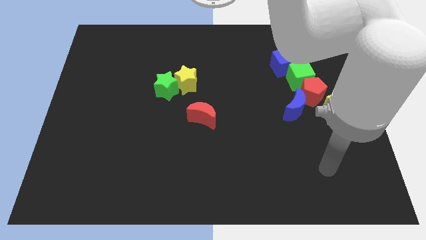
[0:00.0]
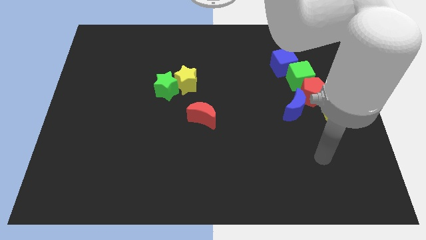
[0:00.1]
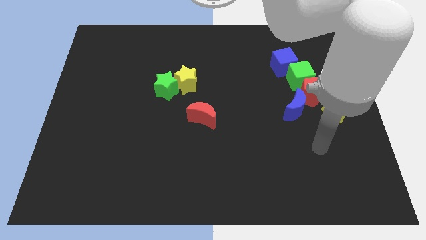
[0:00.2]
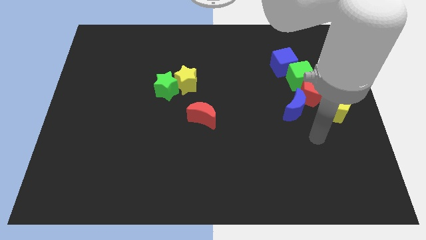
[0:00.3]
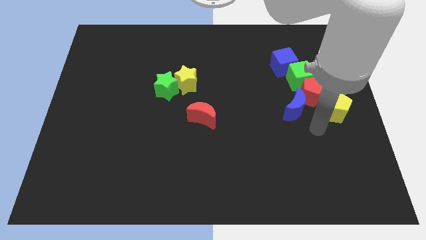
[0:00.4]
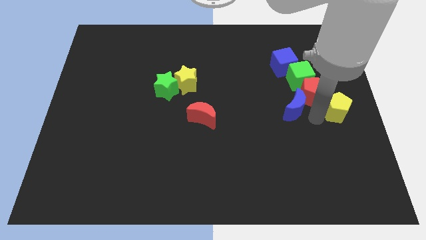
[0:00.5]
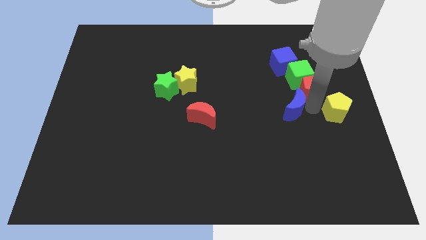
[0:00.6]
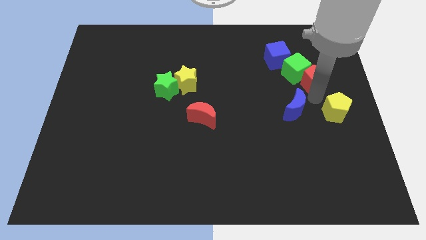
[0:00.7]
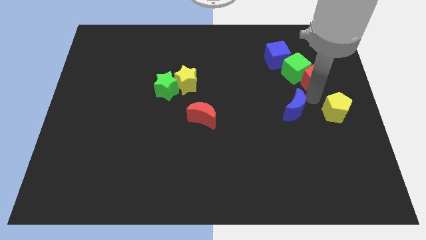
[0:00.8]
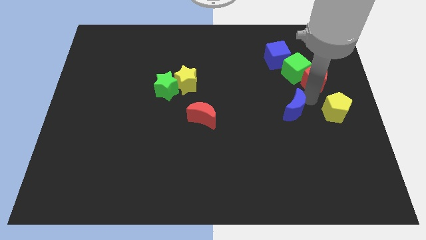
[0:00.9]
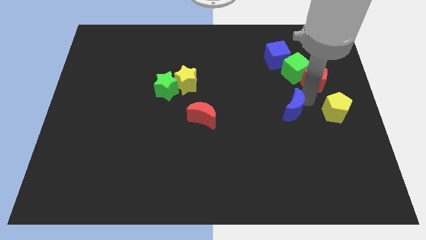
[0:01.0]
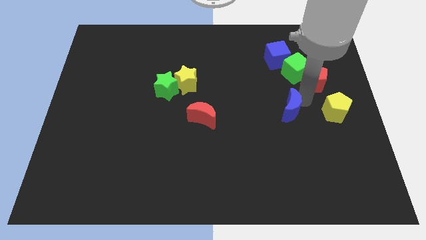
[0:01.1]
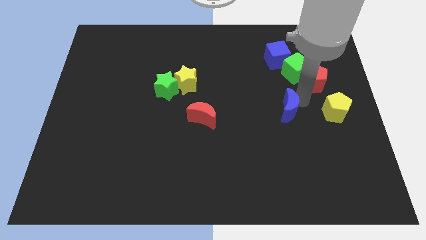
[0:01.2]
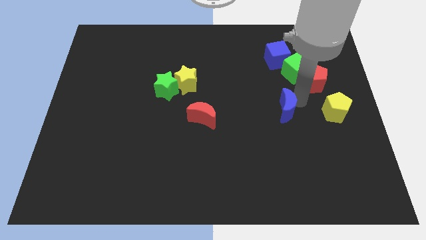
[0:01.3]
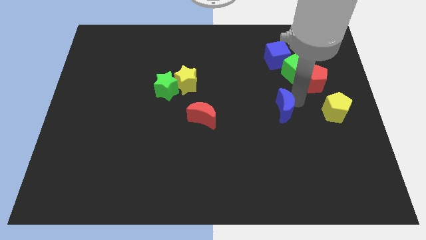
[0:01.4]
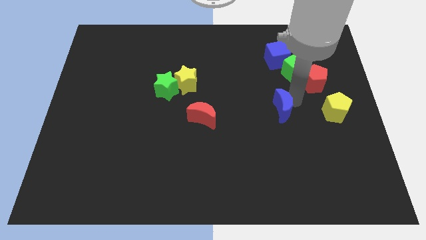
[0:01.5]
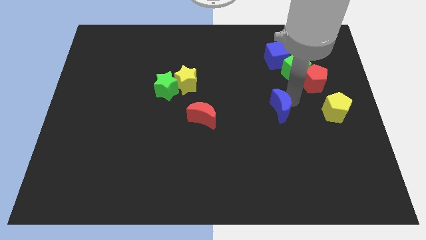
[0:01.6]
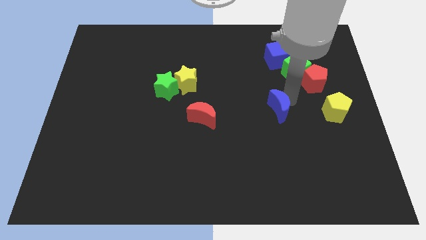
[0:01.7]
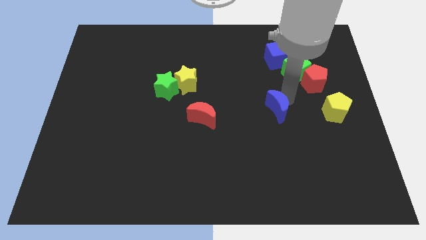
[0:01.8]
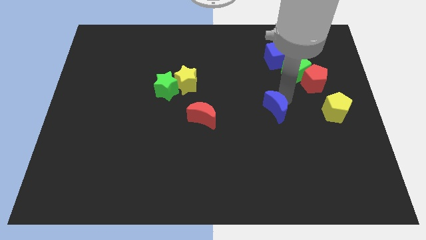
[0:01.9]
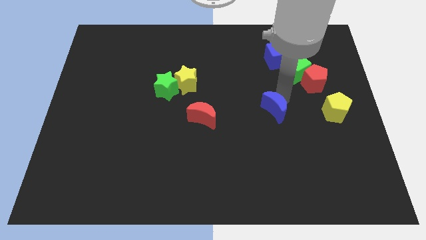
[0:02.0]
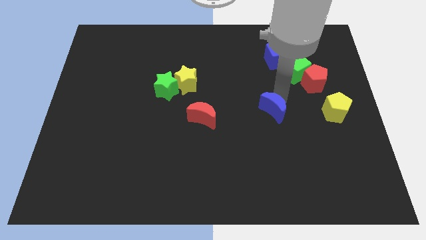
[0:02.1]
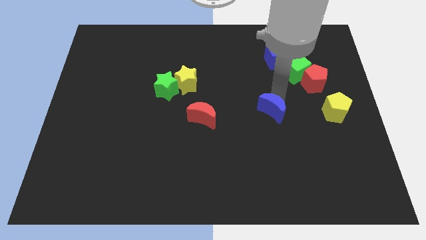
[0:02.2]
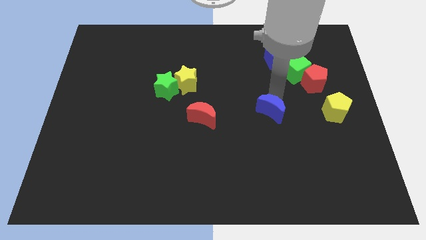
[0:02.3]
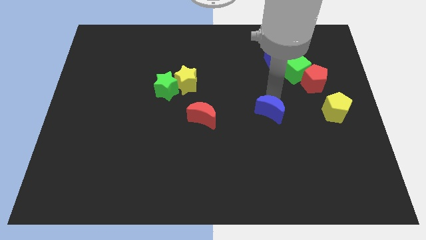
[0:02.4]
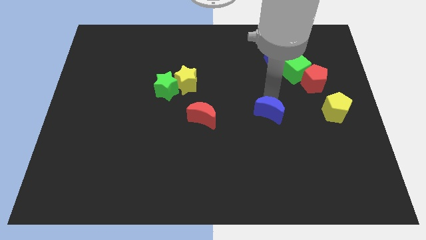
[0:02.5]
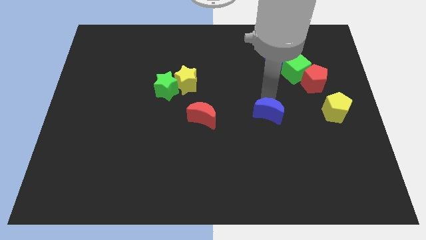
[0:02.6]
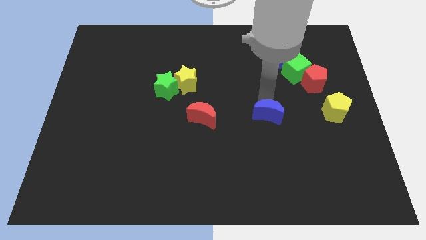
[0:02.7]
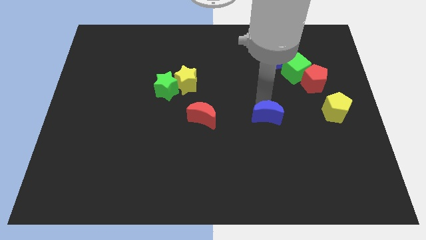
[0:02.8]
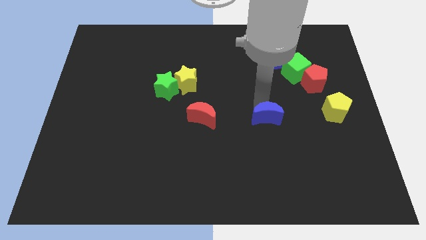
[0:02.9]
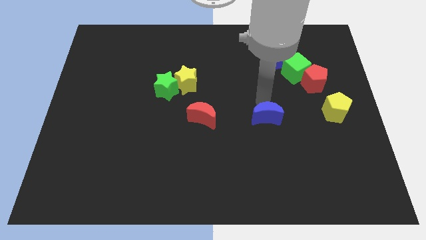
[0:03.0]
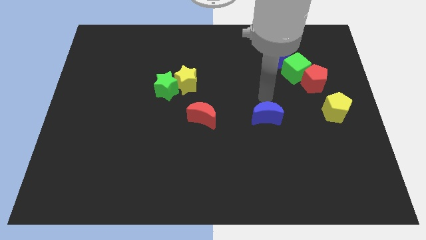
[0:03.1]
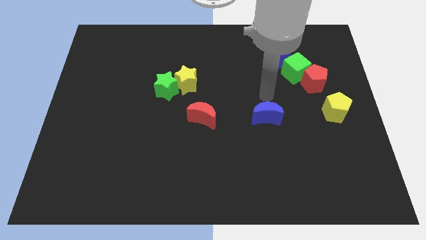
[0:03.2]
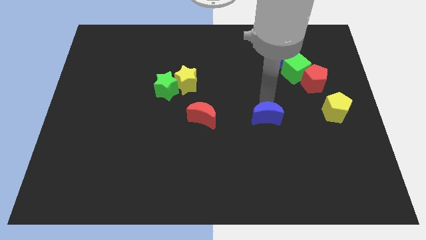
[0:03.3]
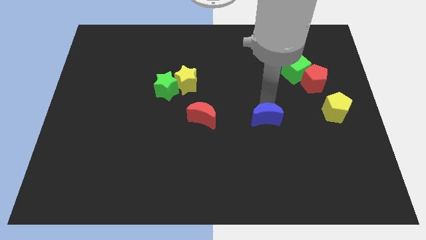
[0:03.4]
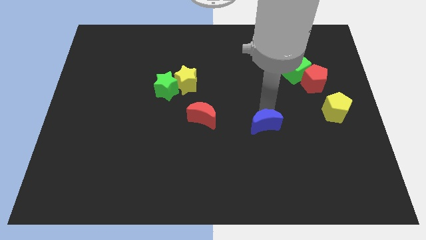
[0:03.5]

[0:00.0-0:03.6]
push the blue moon down and left diagonally slightly

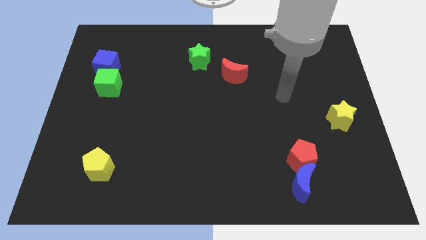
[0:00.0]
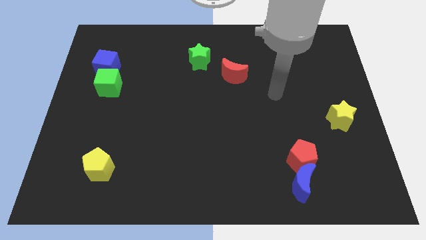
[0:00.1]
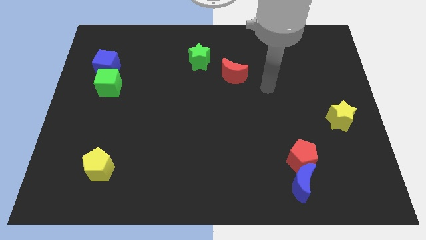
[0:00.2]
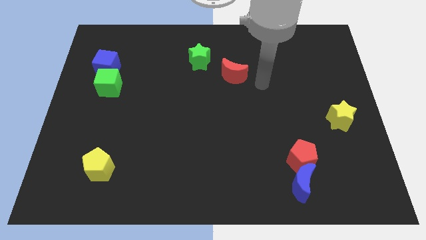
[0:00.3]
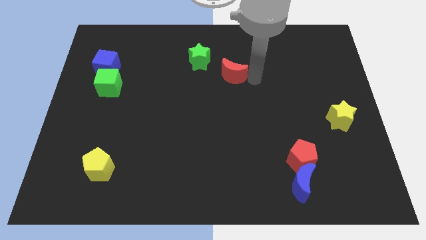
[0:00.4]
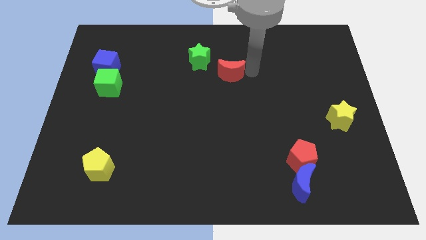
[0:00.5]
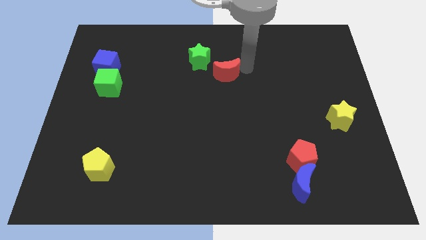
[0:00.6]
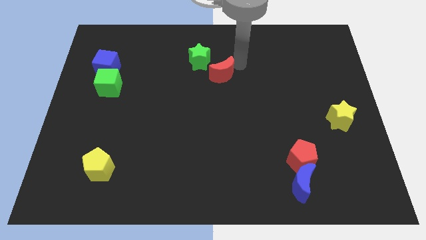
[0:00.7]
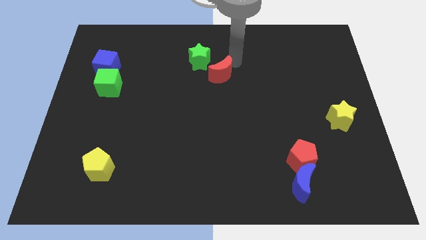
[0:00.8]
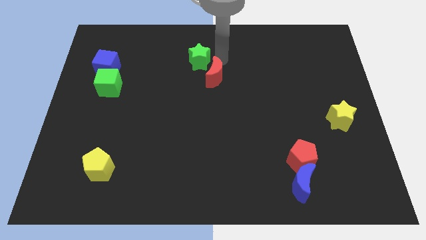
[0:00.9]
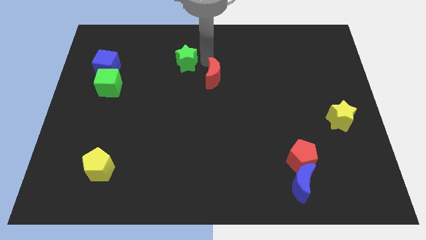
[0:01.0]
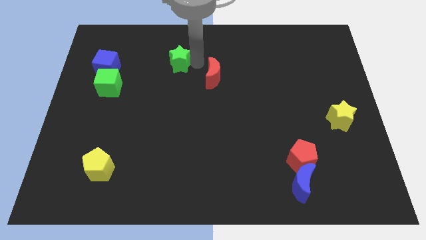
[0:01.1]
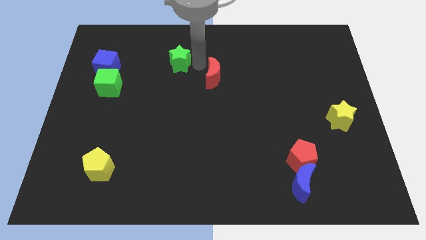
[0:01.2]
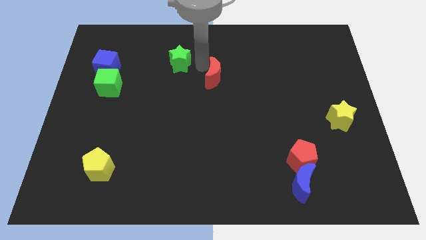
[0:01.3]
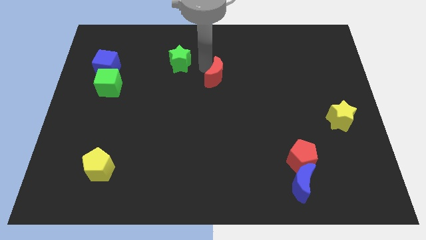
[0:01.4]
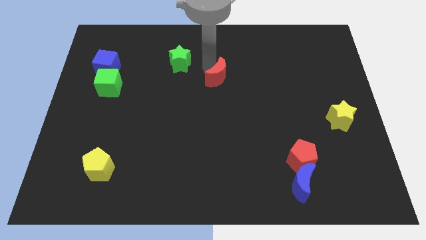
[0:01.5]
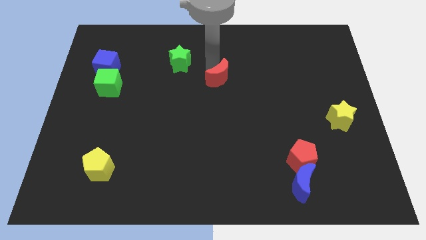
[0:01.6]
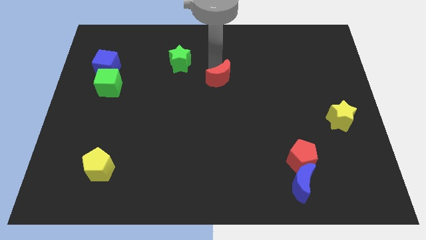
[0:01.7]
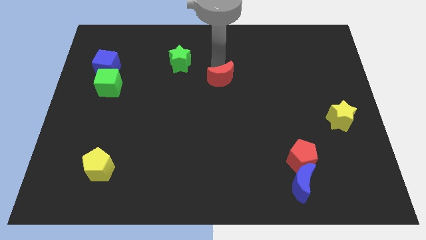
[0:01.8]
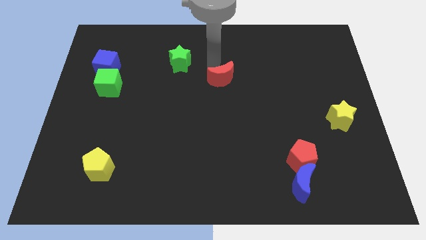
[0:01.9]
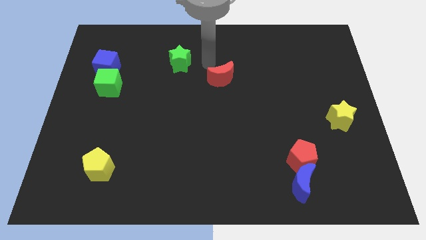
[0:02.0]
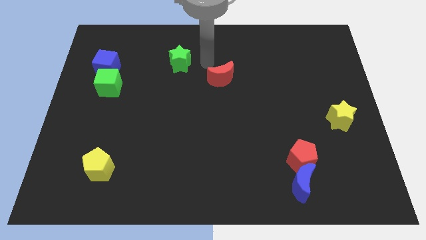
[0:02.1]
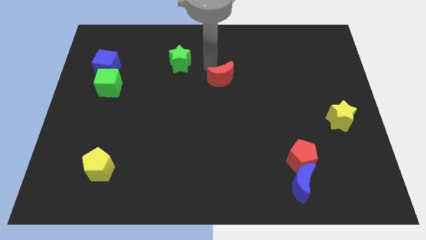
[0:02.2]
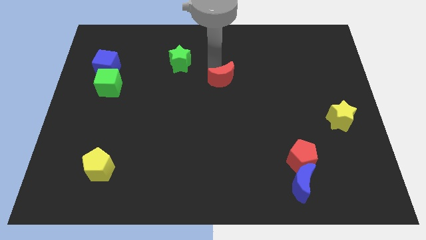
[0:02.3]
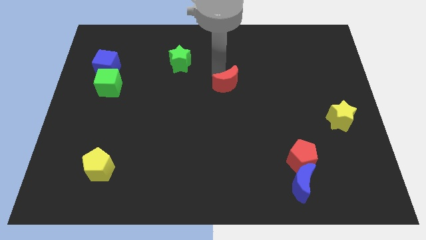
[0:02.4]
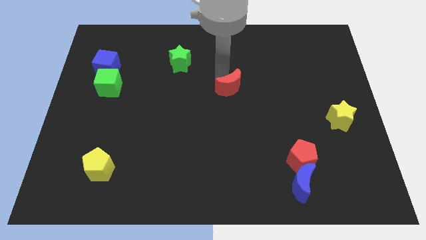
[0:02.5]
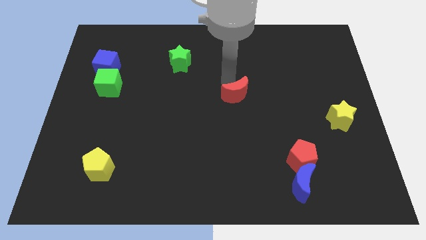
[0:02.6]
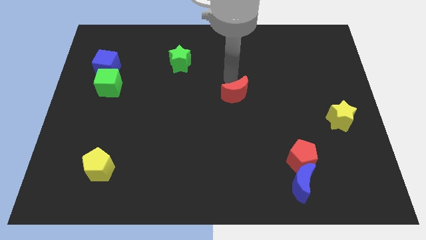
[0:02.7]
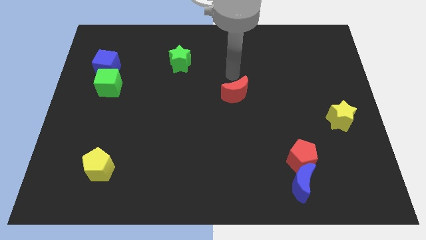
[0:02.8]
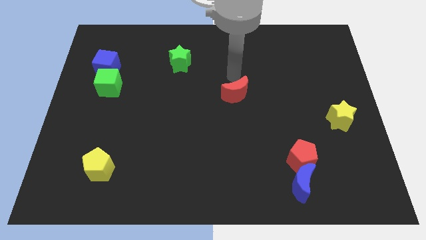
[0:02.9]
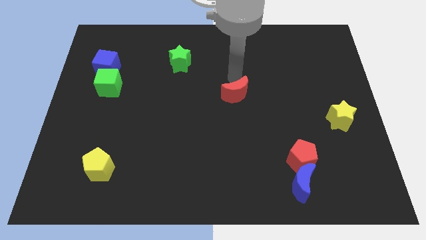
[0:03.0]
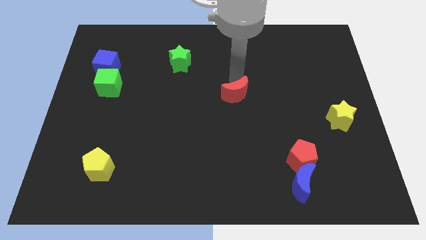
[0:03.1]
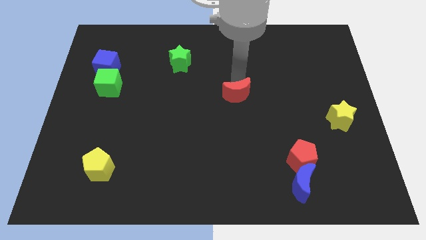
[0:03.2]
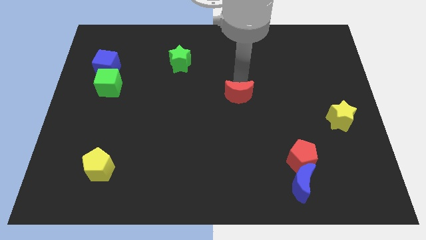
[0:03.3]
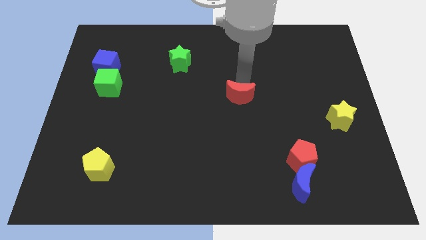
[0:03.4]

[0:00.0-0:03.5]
move the red moon a little bit downwards

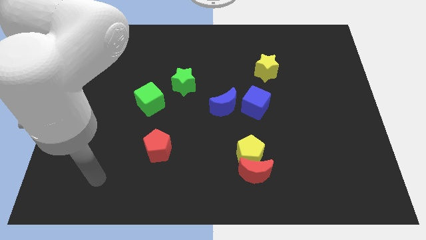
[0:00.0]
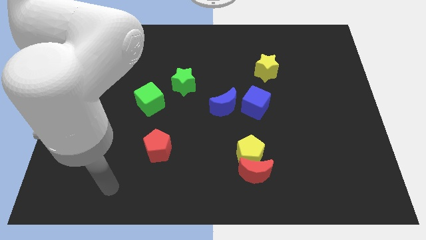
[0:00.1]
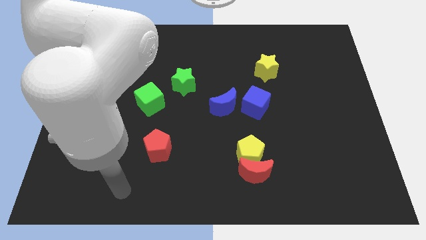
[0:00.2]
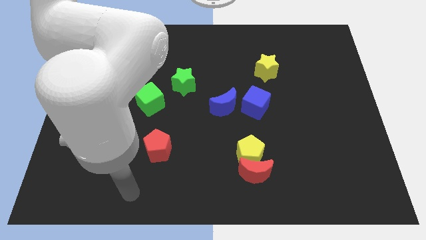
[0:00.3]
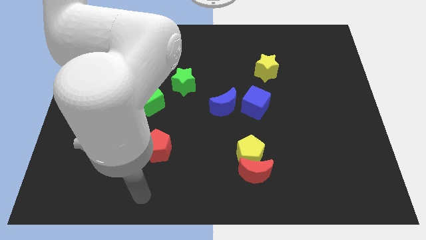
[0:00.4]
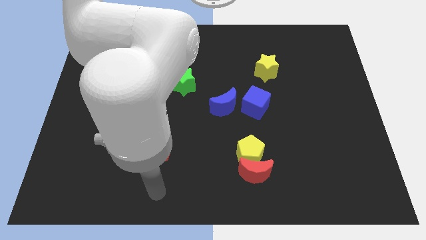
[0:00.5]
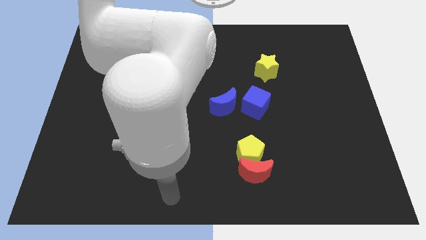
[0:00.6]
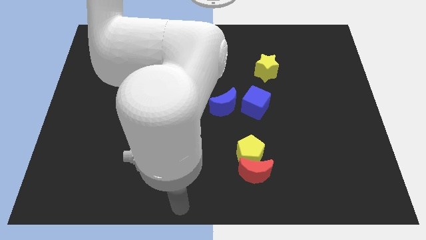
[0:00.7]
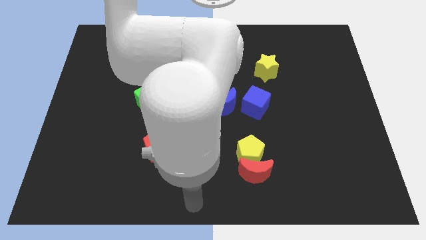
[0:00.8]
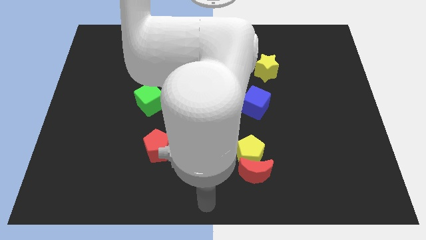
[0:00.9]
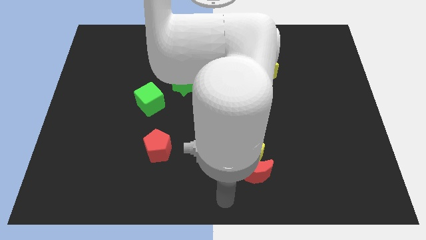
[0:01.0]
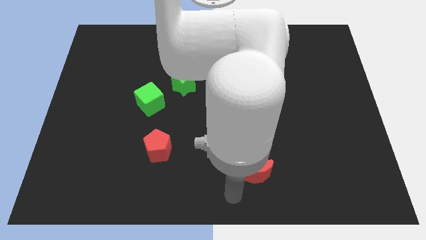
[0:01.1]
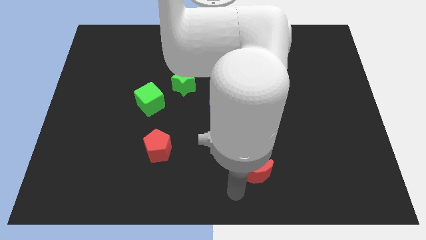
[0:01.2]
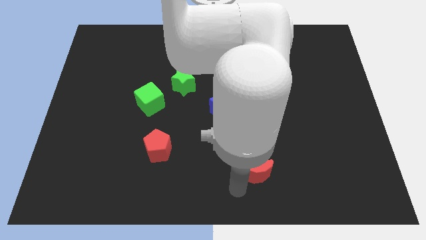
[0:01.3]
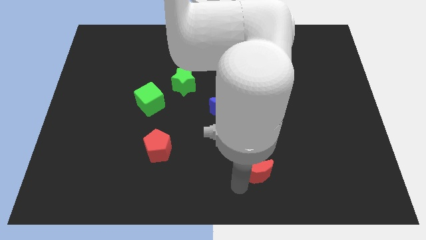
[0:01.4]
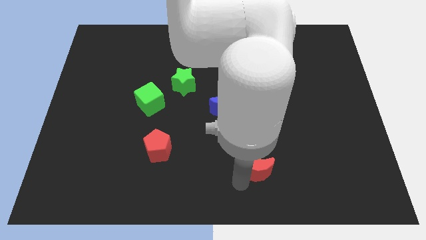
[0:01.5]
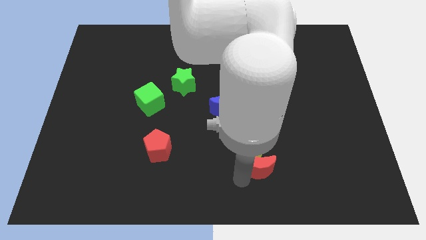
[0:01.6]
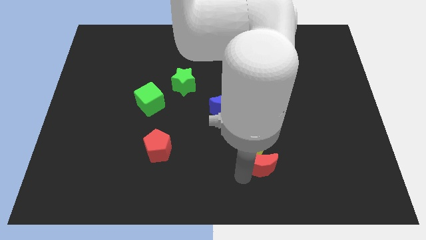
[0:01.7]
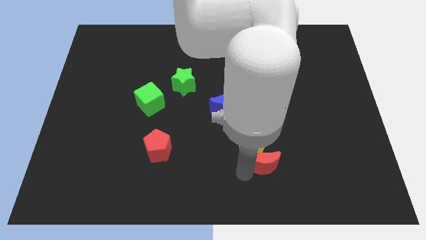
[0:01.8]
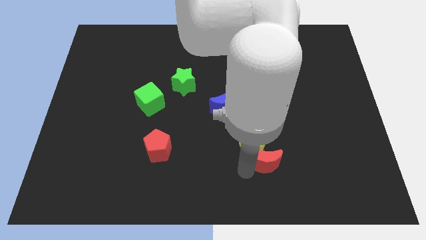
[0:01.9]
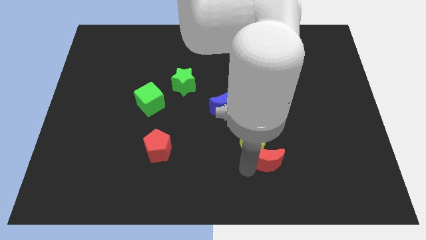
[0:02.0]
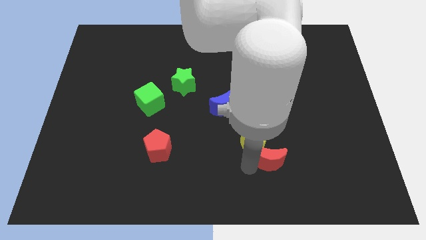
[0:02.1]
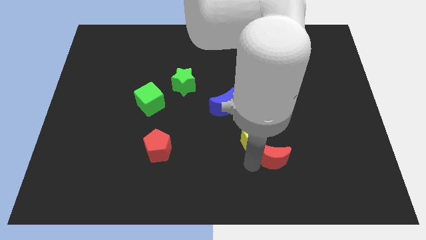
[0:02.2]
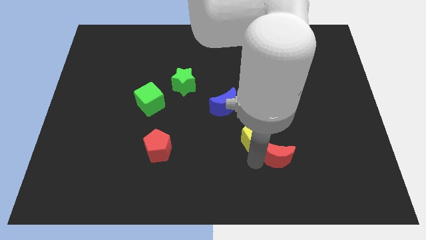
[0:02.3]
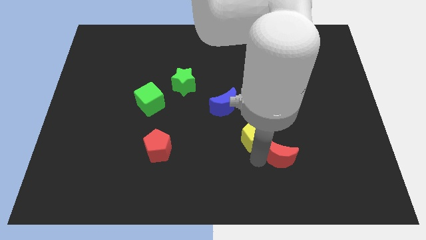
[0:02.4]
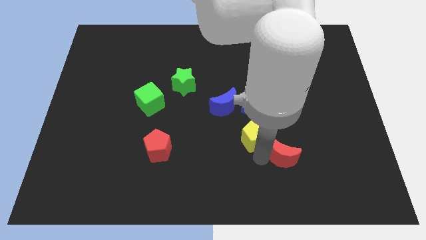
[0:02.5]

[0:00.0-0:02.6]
slightly push the red moon up and then right
